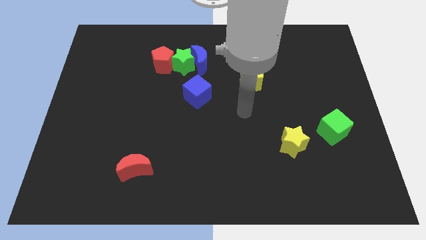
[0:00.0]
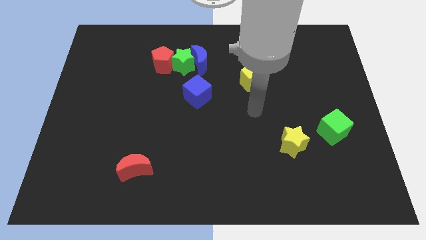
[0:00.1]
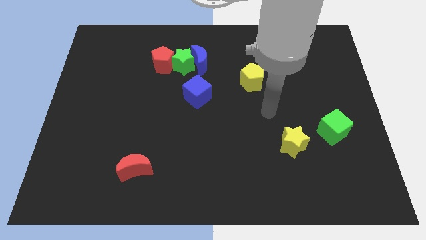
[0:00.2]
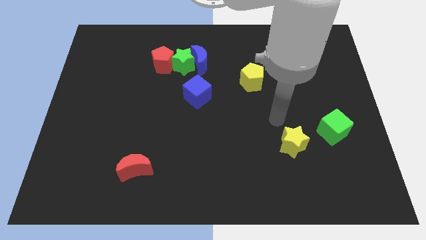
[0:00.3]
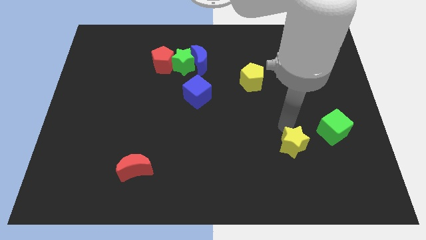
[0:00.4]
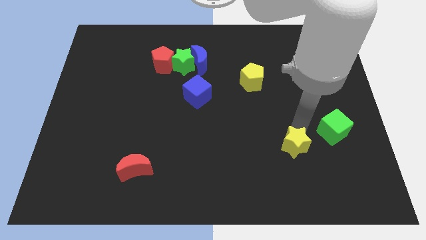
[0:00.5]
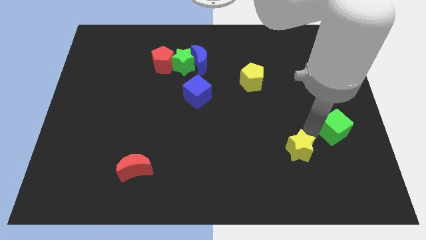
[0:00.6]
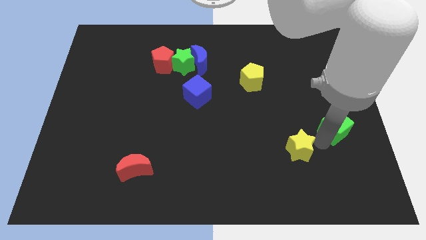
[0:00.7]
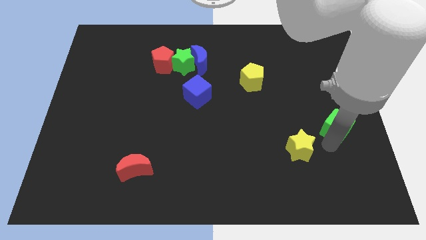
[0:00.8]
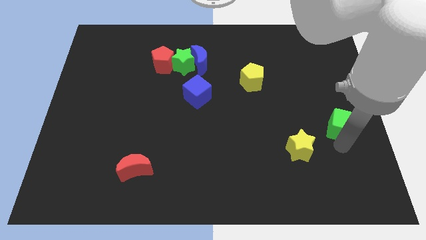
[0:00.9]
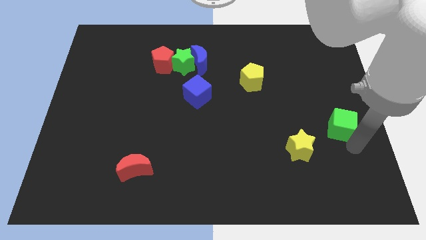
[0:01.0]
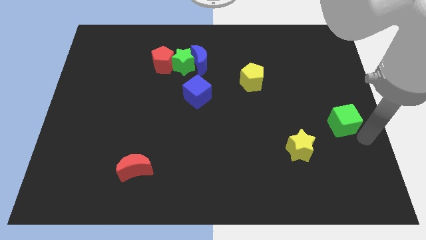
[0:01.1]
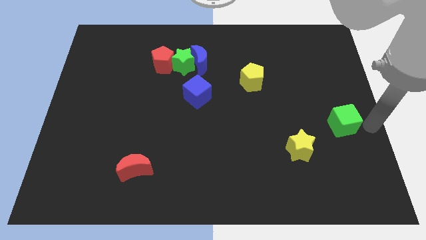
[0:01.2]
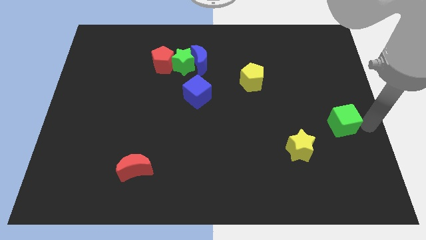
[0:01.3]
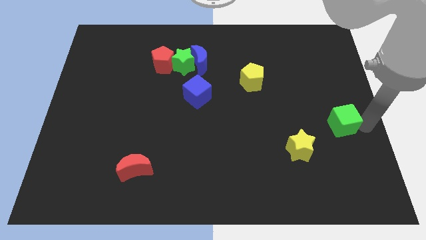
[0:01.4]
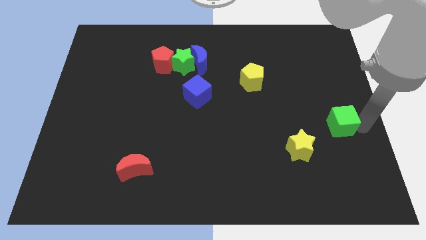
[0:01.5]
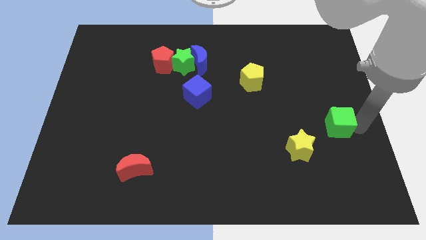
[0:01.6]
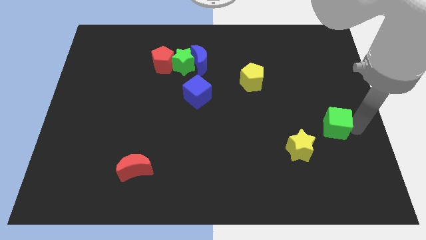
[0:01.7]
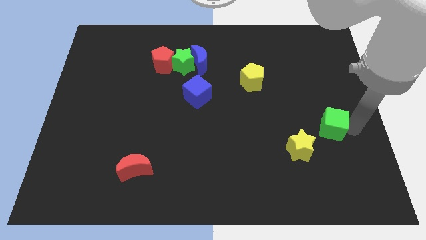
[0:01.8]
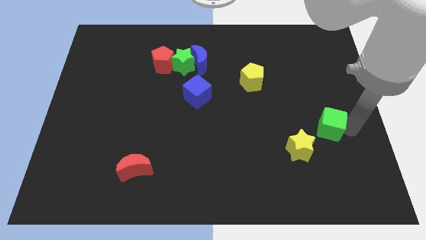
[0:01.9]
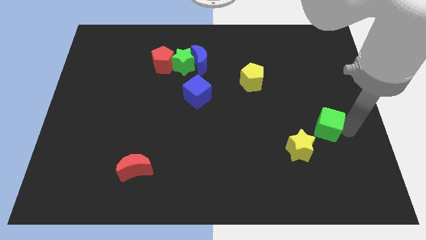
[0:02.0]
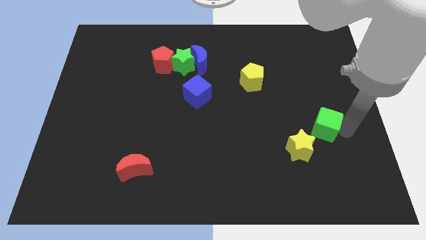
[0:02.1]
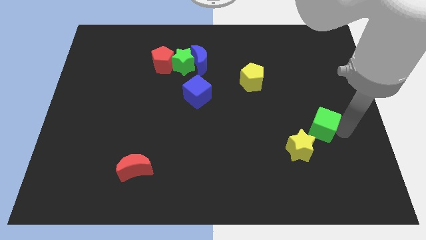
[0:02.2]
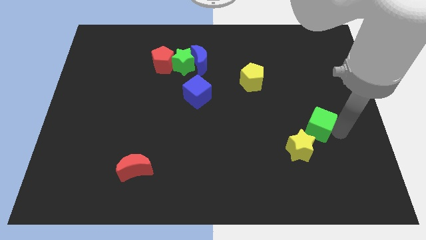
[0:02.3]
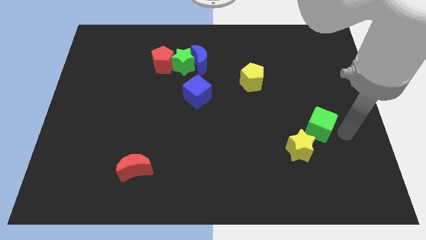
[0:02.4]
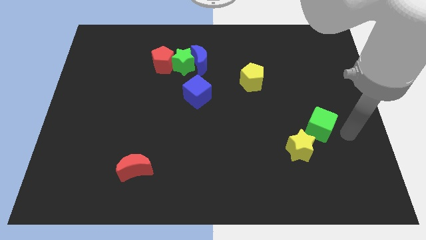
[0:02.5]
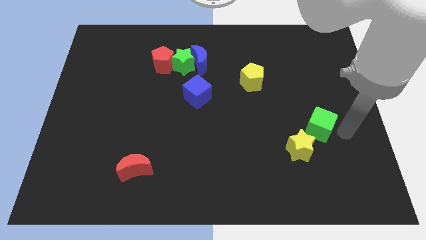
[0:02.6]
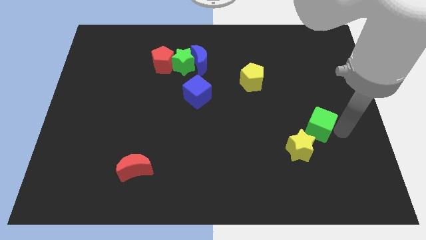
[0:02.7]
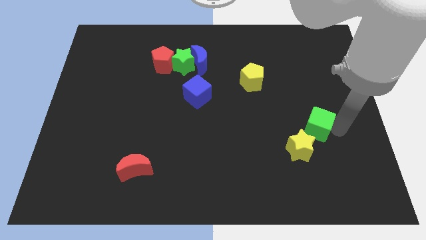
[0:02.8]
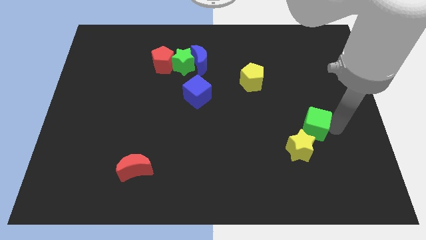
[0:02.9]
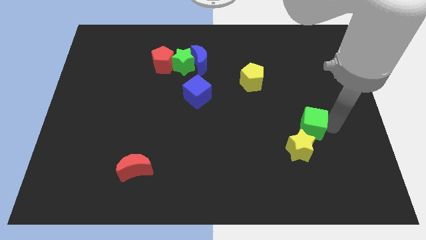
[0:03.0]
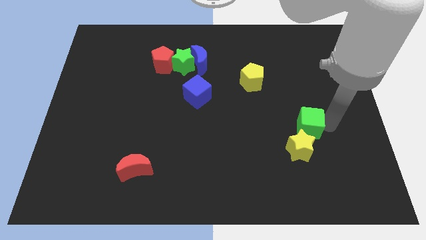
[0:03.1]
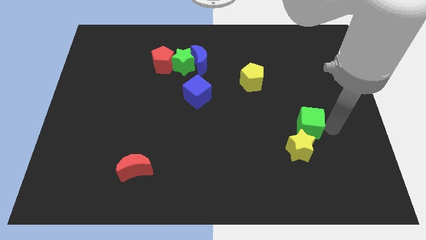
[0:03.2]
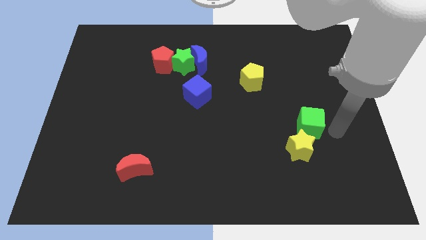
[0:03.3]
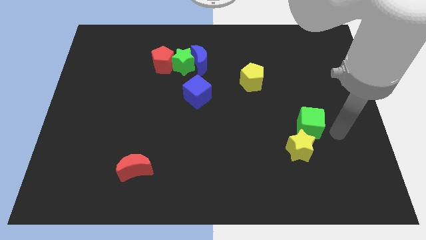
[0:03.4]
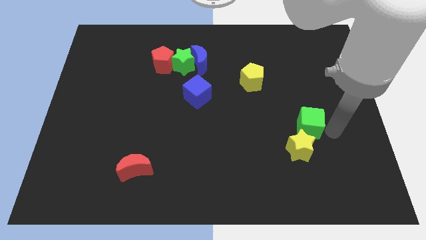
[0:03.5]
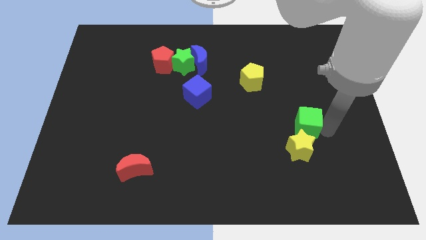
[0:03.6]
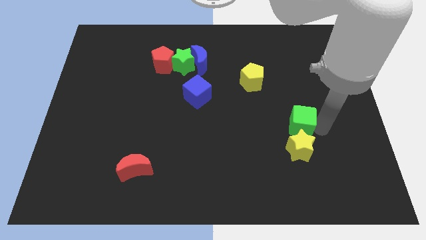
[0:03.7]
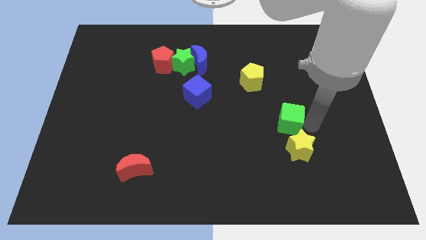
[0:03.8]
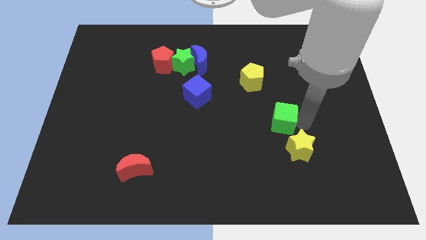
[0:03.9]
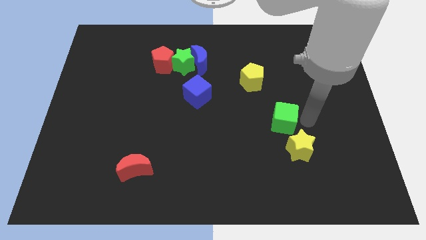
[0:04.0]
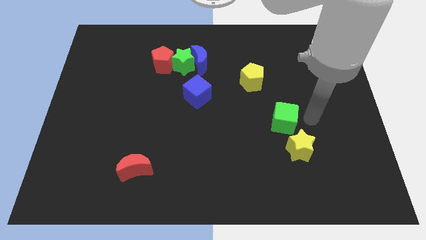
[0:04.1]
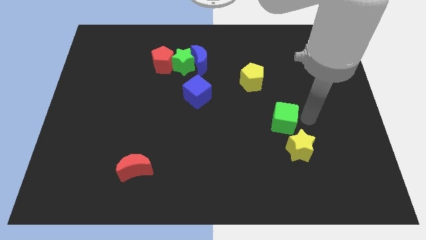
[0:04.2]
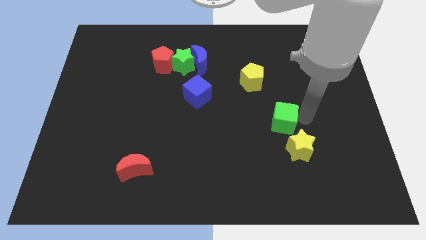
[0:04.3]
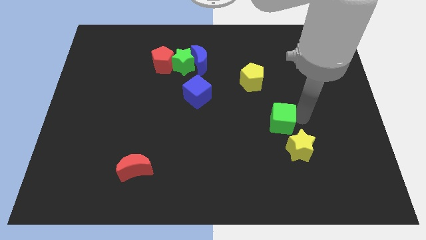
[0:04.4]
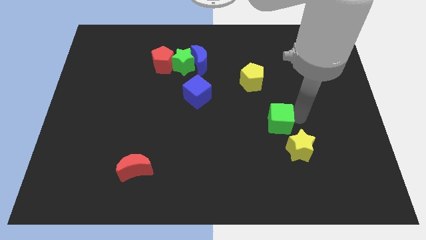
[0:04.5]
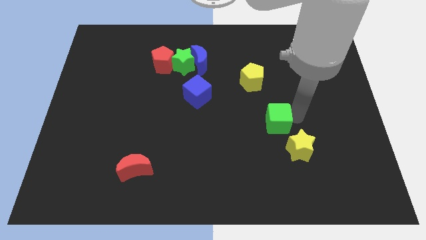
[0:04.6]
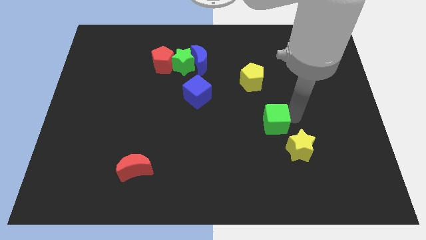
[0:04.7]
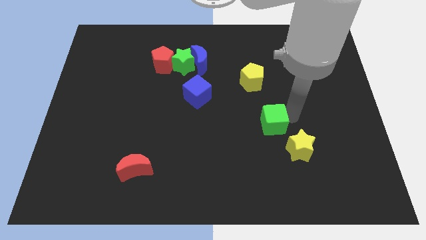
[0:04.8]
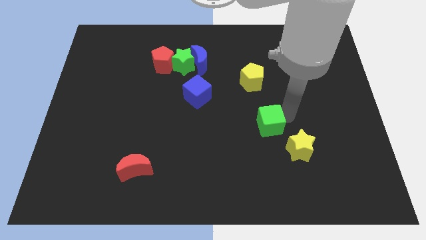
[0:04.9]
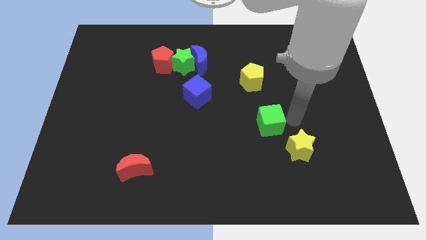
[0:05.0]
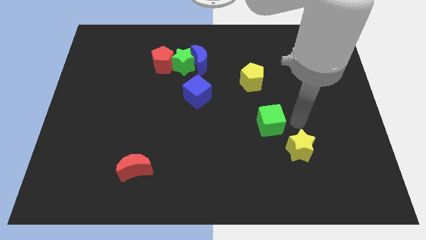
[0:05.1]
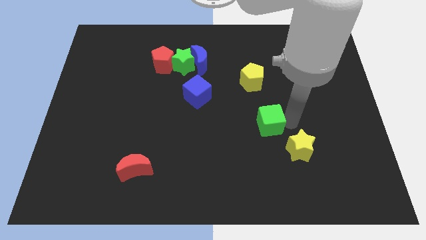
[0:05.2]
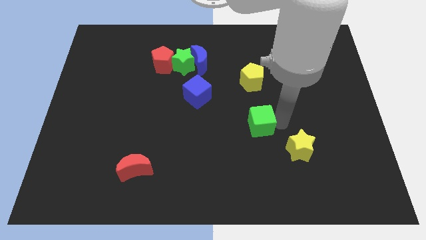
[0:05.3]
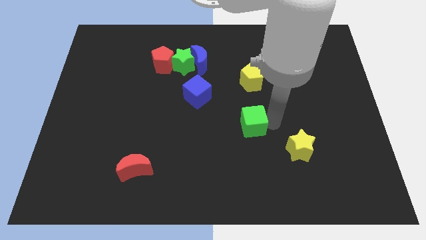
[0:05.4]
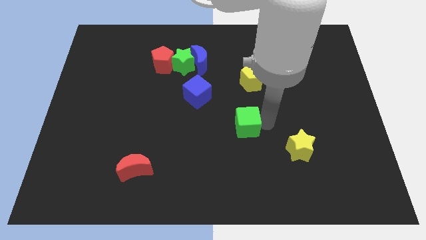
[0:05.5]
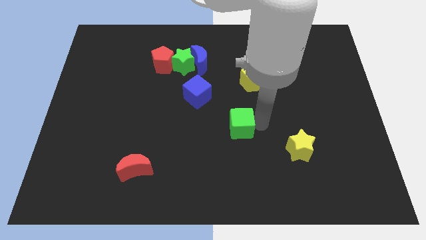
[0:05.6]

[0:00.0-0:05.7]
push the green cube to the left

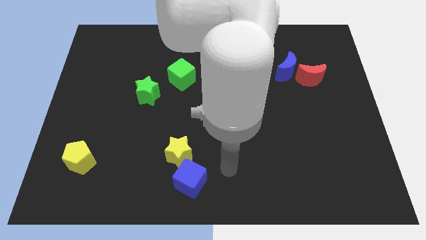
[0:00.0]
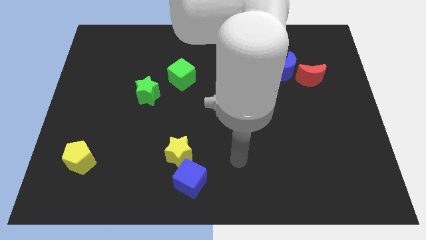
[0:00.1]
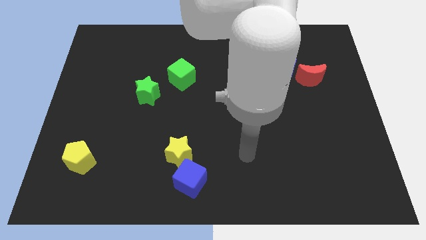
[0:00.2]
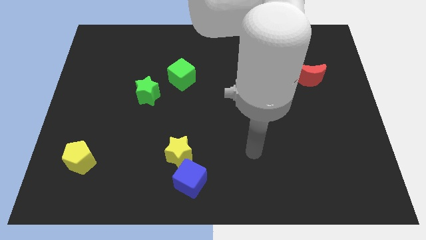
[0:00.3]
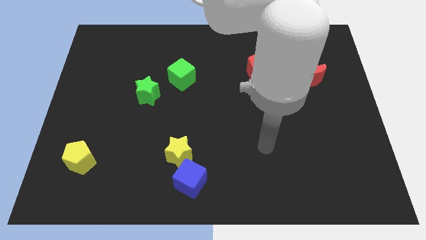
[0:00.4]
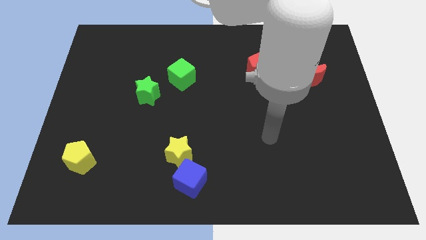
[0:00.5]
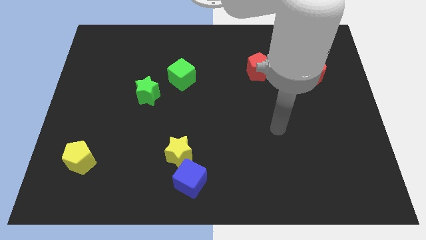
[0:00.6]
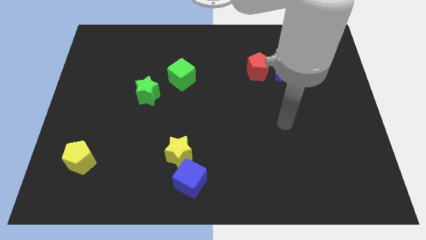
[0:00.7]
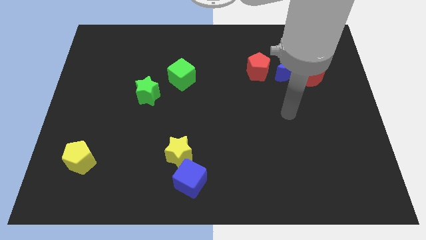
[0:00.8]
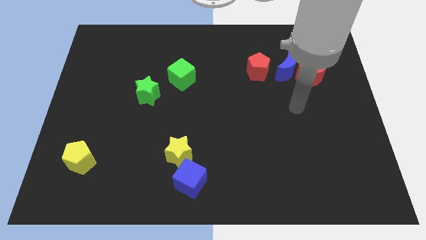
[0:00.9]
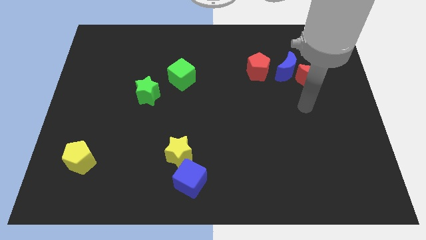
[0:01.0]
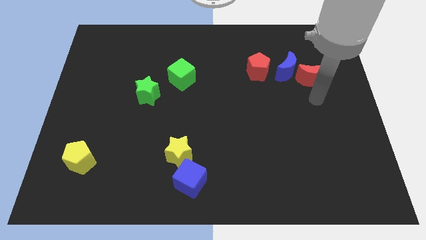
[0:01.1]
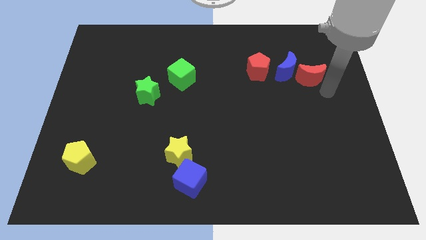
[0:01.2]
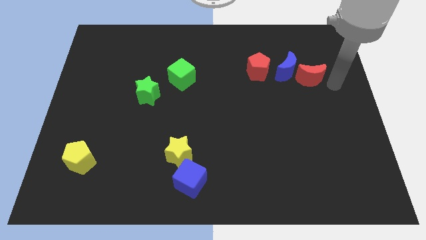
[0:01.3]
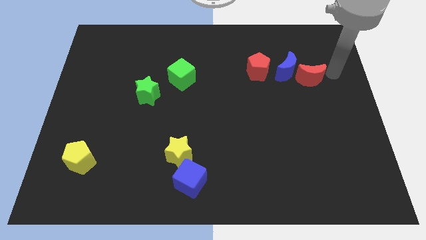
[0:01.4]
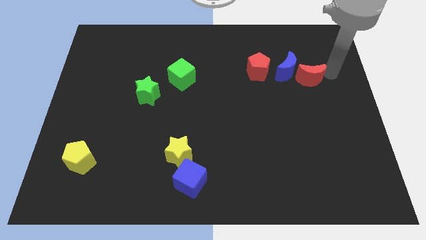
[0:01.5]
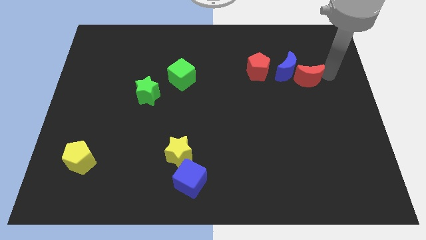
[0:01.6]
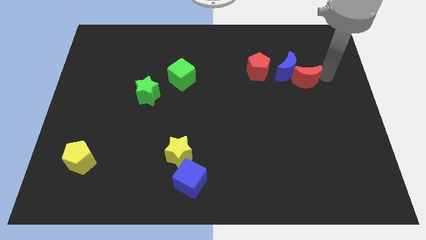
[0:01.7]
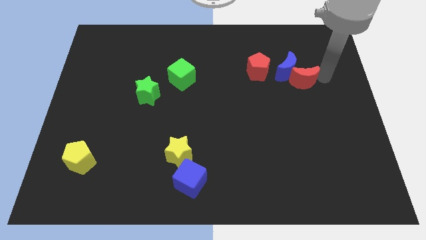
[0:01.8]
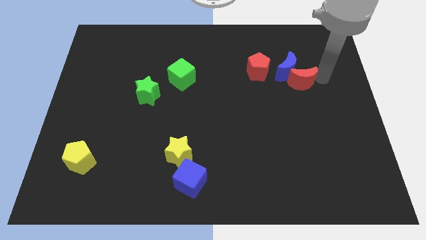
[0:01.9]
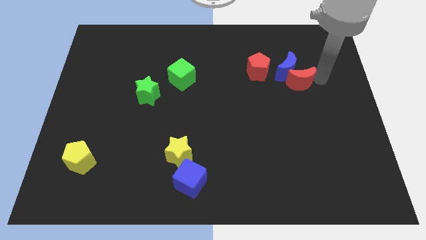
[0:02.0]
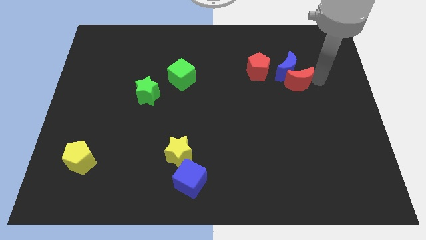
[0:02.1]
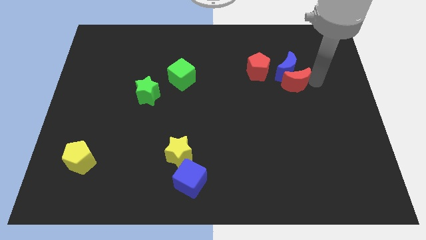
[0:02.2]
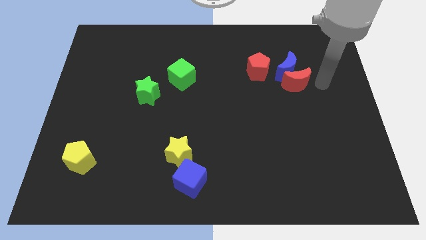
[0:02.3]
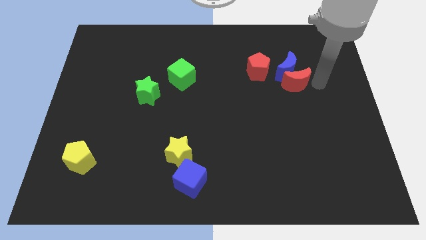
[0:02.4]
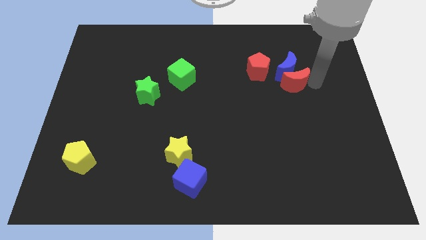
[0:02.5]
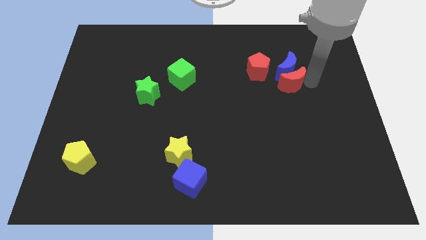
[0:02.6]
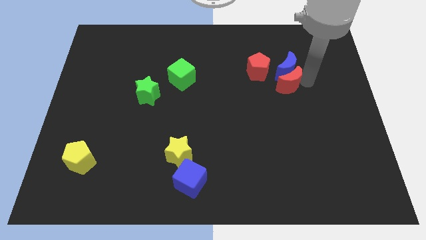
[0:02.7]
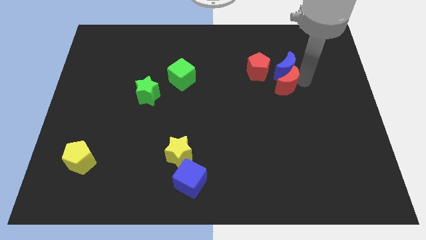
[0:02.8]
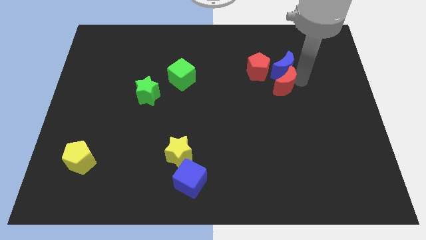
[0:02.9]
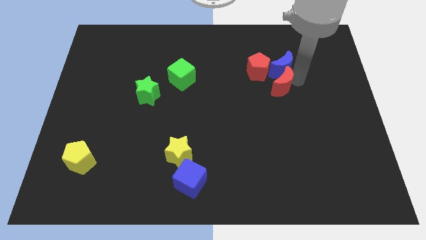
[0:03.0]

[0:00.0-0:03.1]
move the red moon a little bit left
